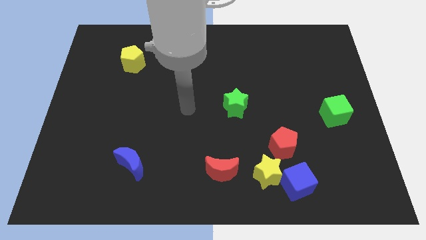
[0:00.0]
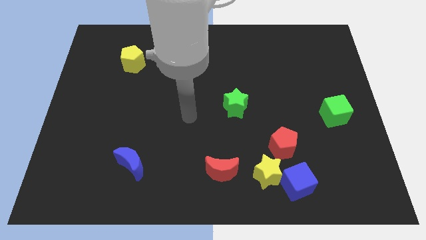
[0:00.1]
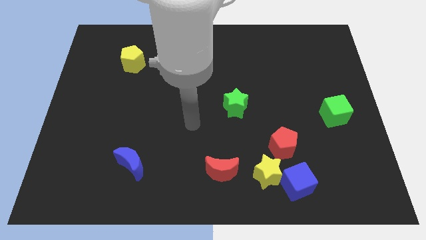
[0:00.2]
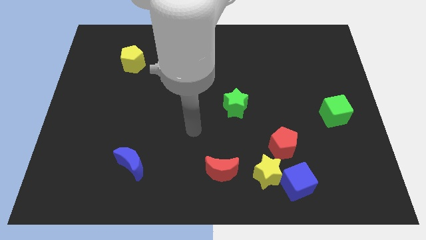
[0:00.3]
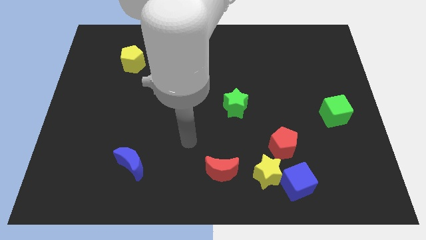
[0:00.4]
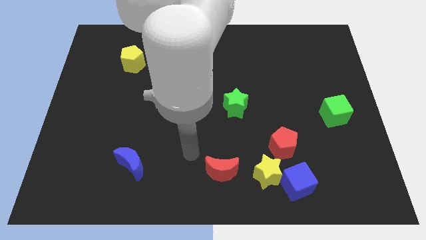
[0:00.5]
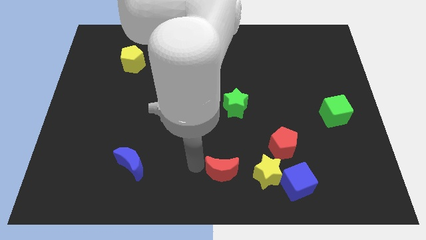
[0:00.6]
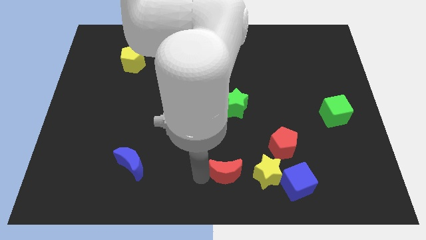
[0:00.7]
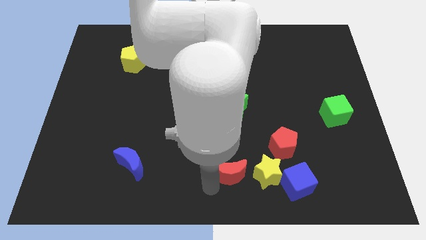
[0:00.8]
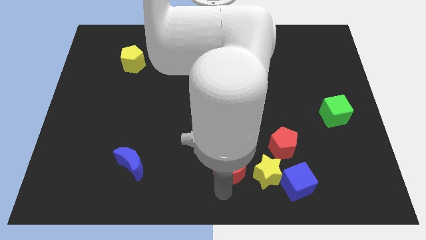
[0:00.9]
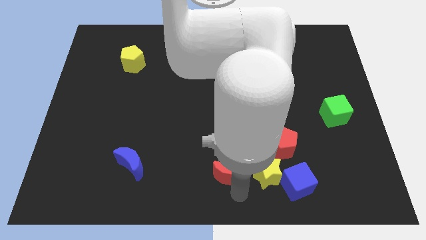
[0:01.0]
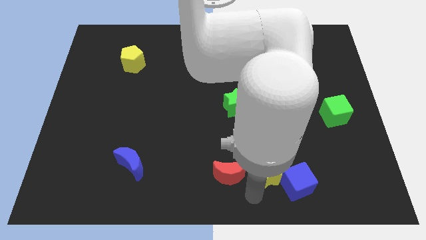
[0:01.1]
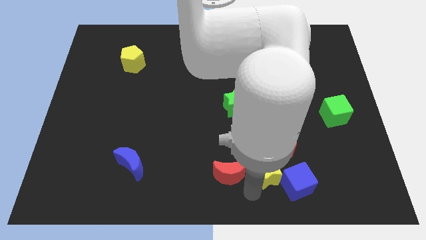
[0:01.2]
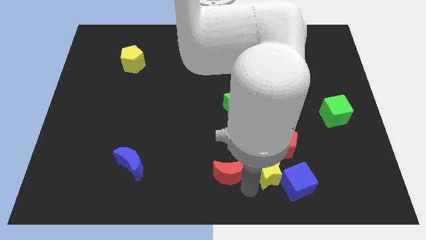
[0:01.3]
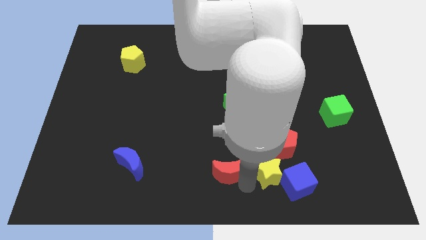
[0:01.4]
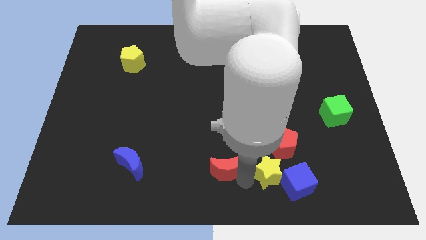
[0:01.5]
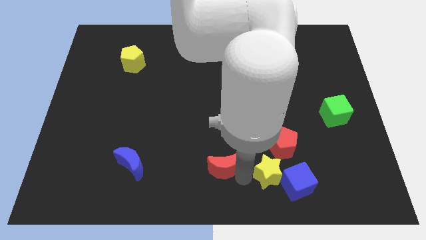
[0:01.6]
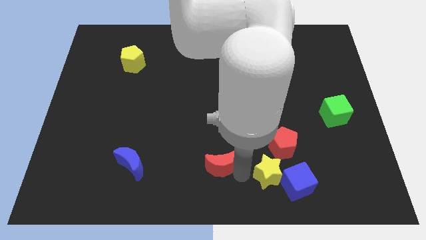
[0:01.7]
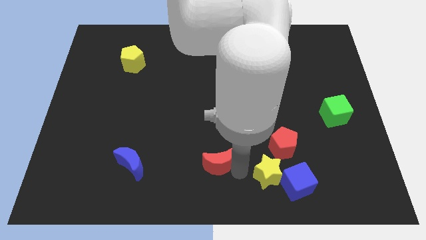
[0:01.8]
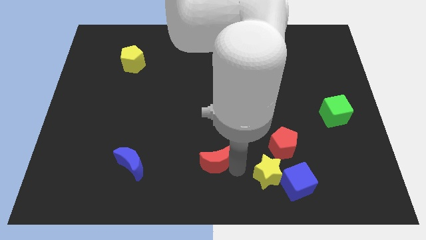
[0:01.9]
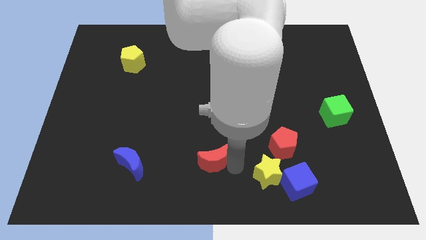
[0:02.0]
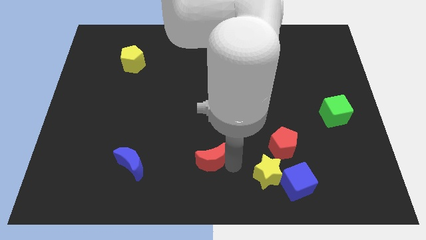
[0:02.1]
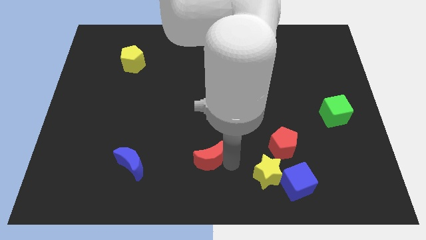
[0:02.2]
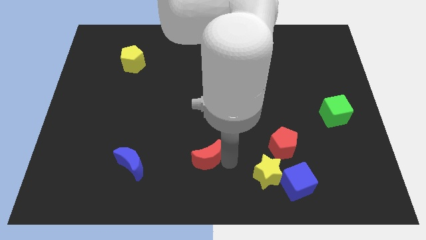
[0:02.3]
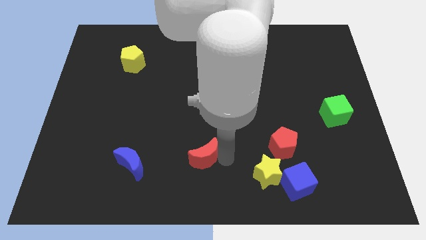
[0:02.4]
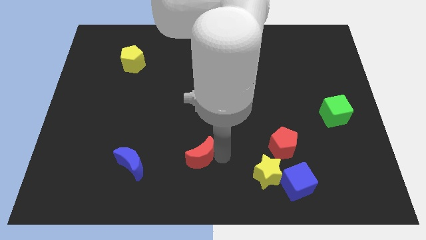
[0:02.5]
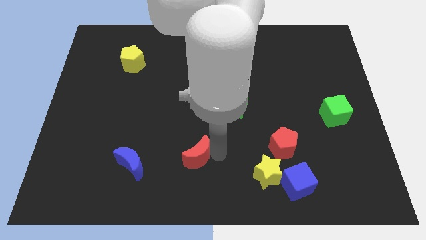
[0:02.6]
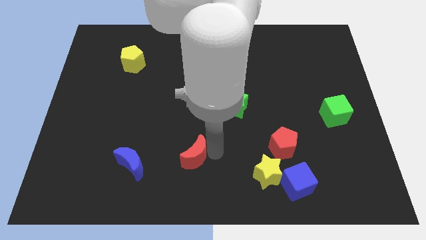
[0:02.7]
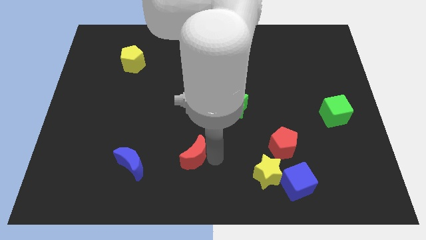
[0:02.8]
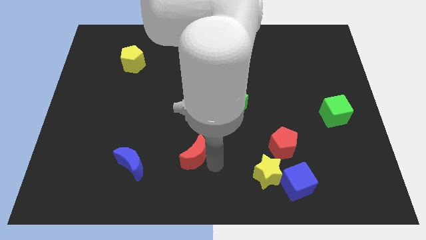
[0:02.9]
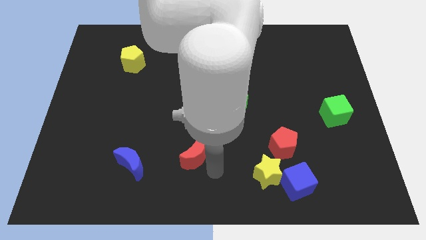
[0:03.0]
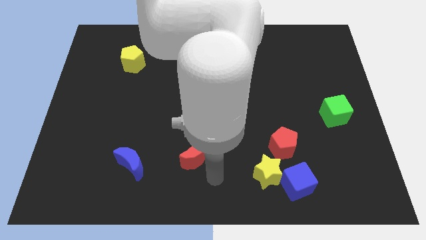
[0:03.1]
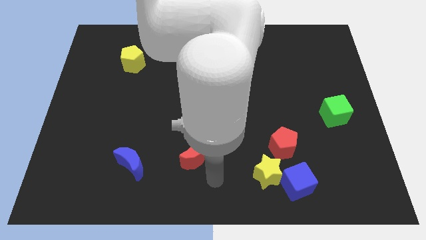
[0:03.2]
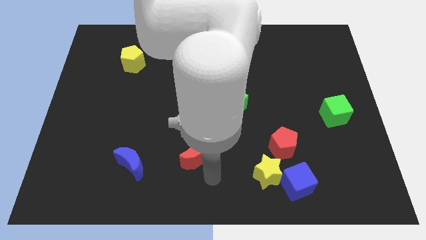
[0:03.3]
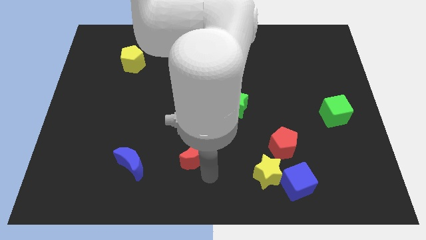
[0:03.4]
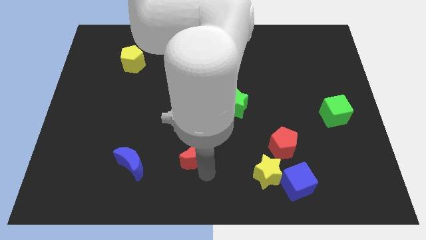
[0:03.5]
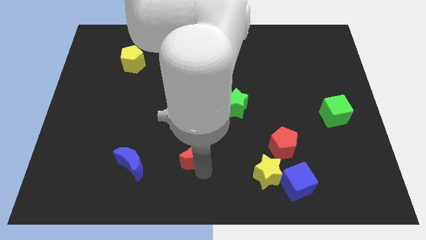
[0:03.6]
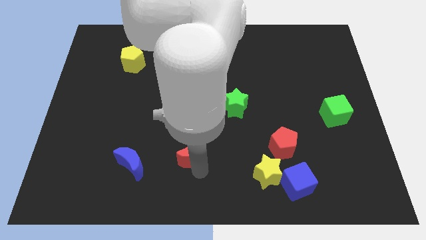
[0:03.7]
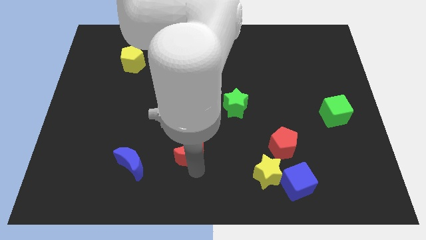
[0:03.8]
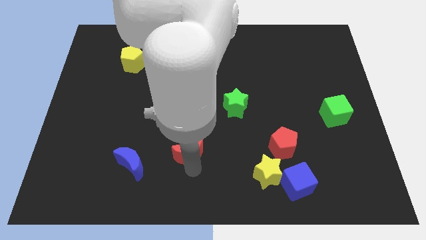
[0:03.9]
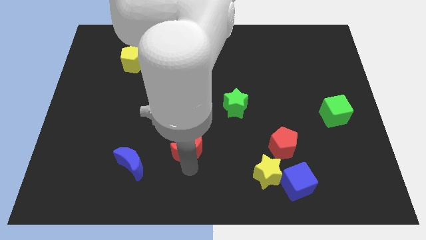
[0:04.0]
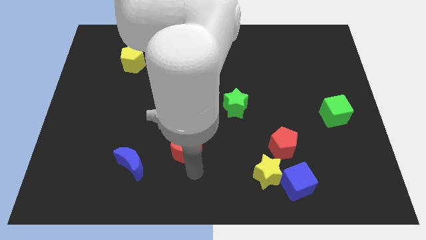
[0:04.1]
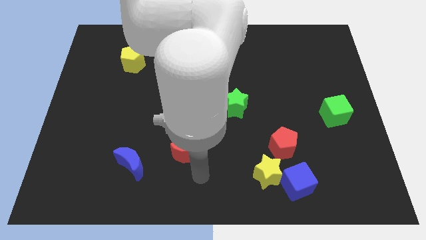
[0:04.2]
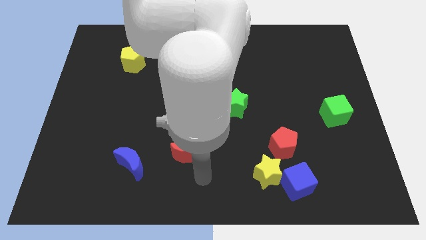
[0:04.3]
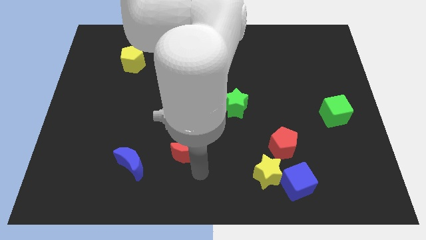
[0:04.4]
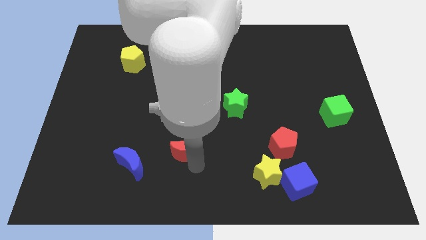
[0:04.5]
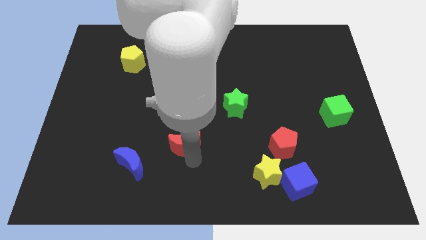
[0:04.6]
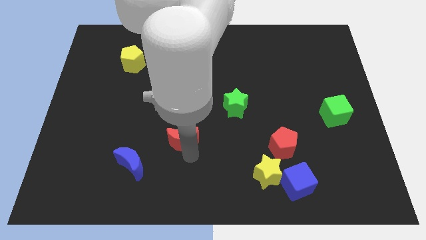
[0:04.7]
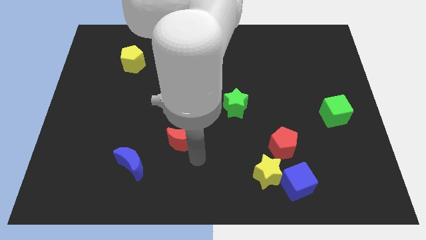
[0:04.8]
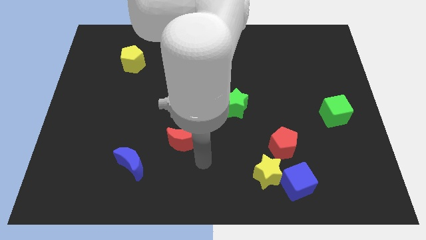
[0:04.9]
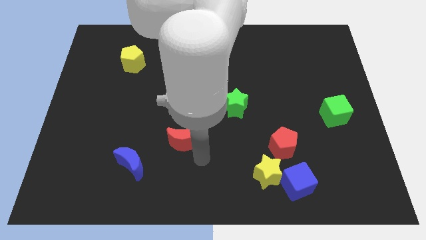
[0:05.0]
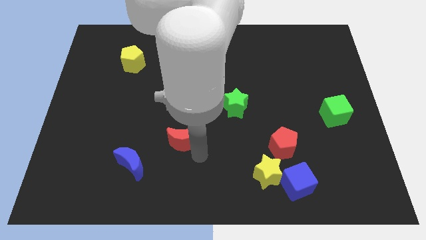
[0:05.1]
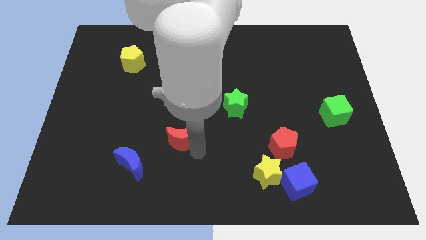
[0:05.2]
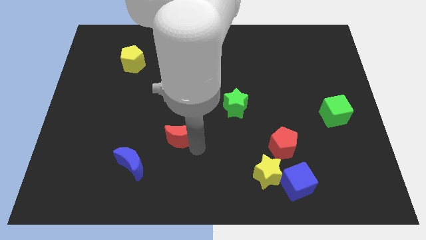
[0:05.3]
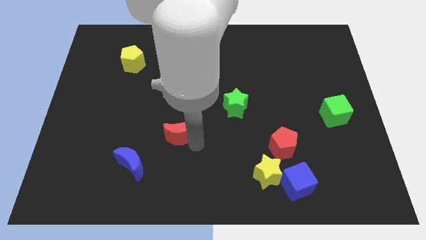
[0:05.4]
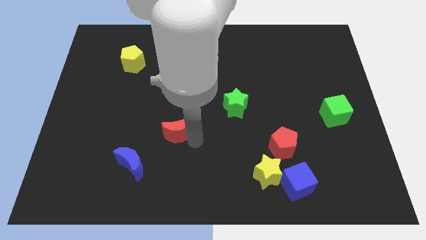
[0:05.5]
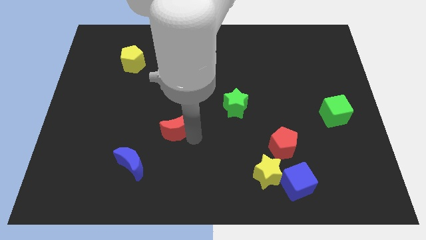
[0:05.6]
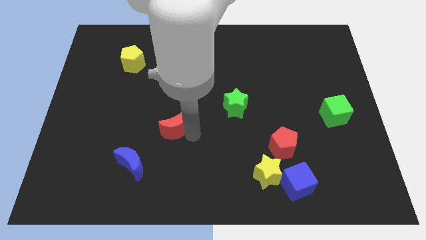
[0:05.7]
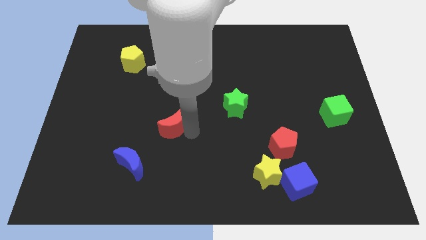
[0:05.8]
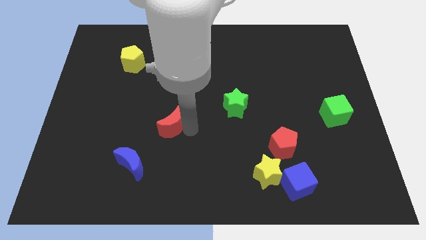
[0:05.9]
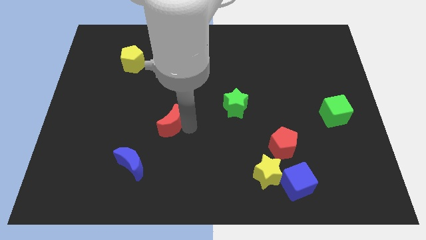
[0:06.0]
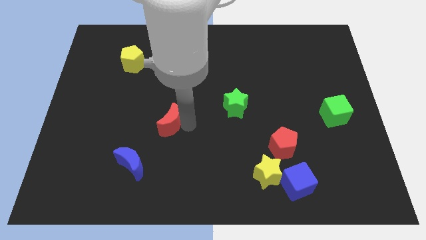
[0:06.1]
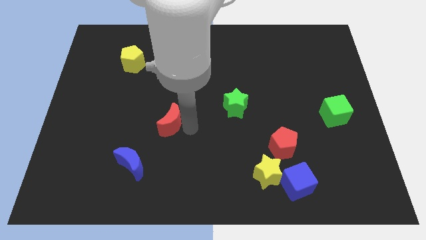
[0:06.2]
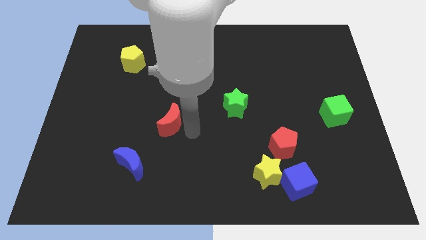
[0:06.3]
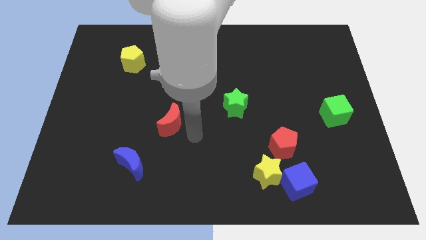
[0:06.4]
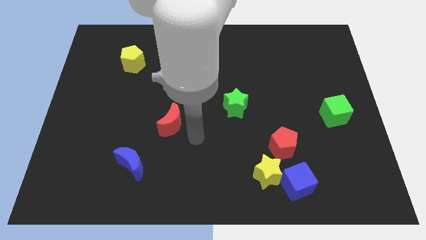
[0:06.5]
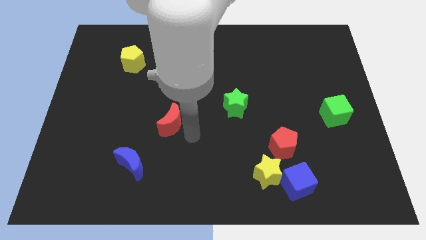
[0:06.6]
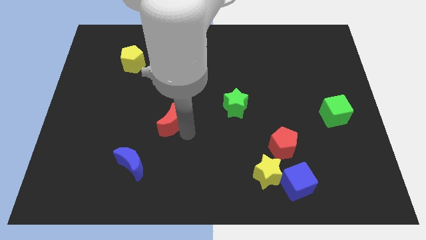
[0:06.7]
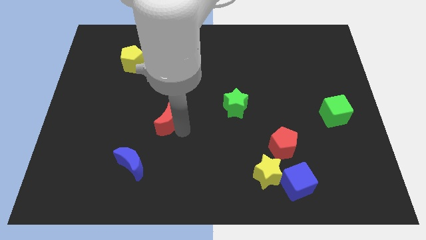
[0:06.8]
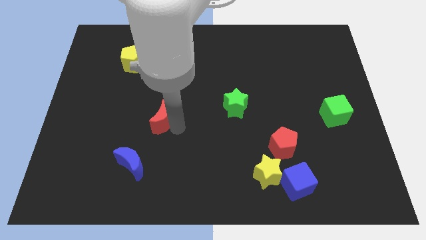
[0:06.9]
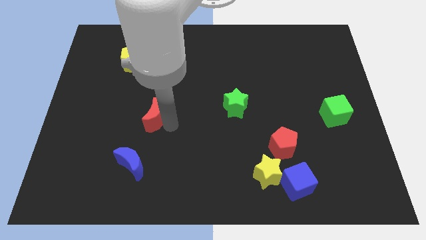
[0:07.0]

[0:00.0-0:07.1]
move the red moon upwards and then to the left

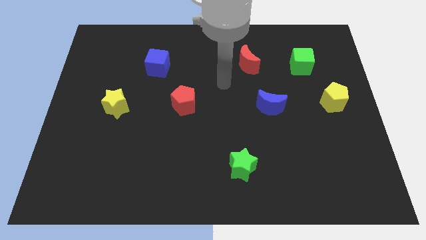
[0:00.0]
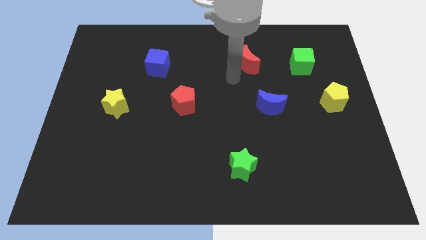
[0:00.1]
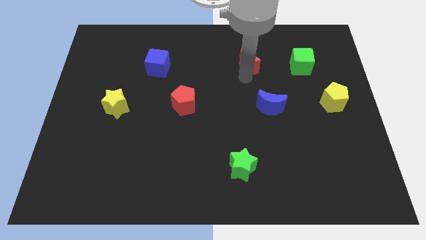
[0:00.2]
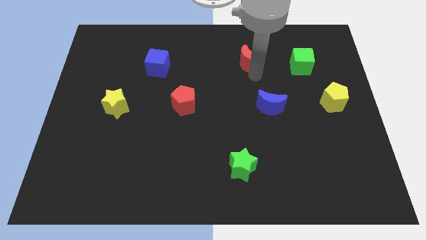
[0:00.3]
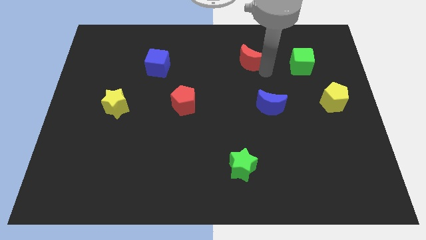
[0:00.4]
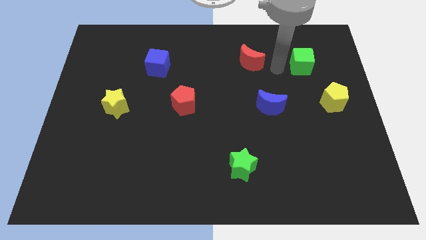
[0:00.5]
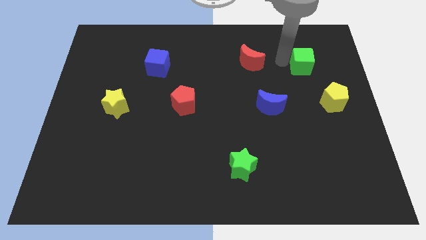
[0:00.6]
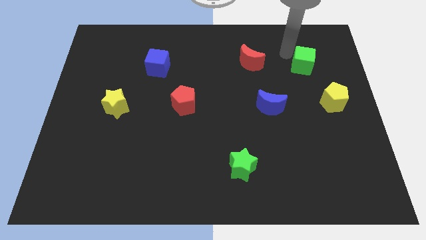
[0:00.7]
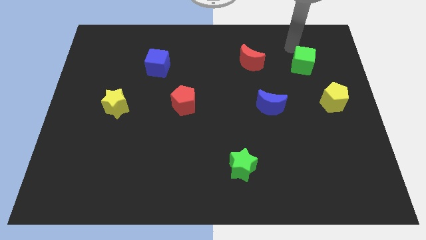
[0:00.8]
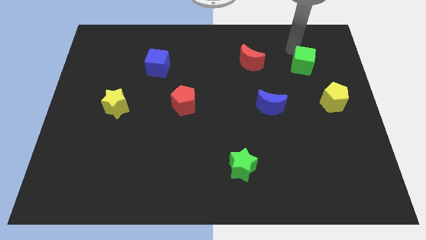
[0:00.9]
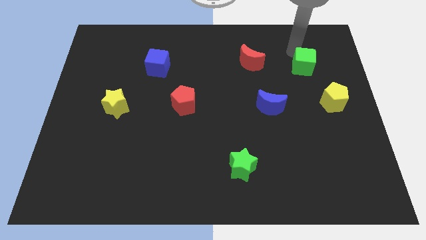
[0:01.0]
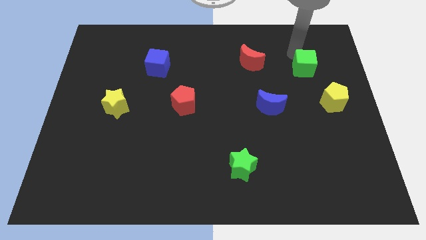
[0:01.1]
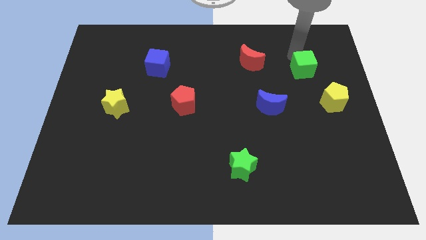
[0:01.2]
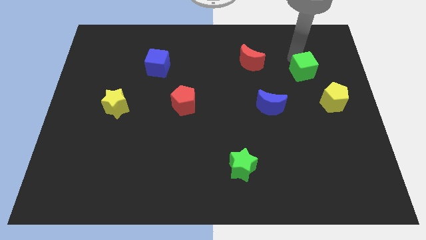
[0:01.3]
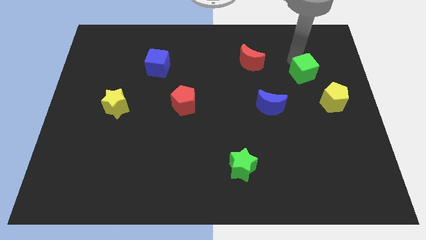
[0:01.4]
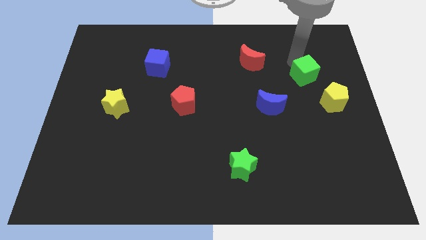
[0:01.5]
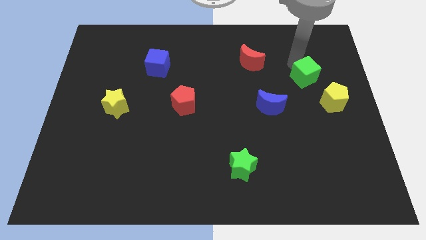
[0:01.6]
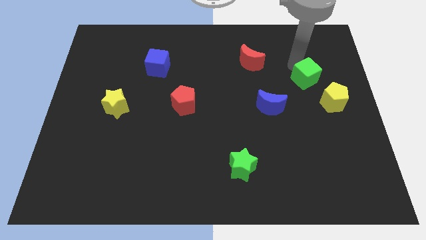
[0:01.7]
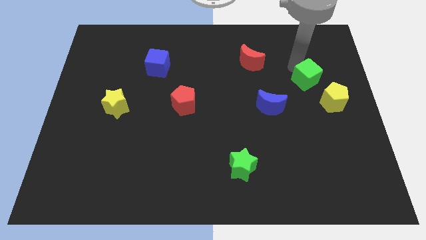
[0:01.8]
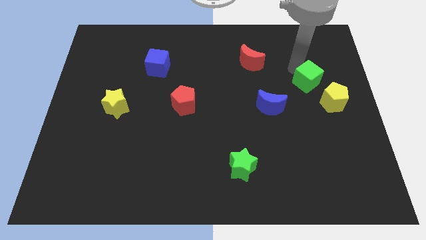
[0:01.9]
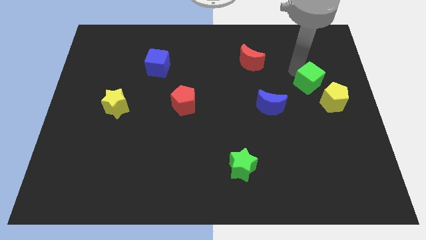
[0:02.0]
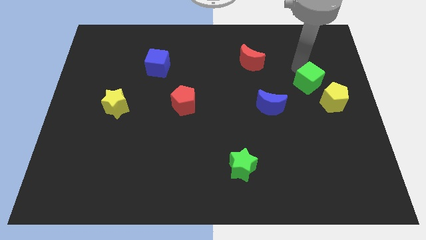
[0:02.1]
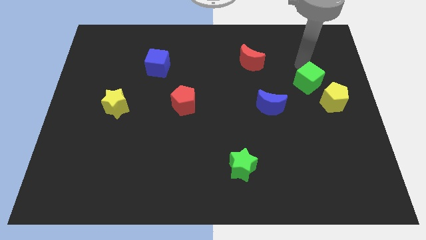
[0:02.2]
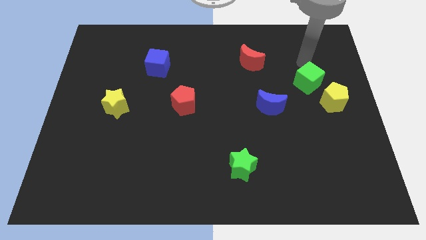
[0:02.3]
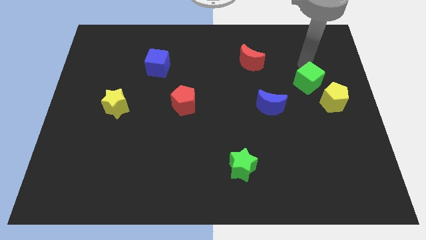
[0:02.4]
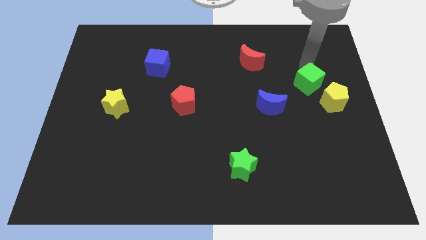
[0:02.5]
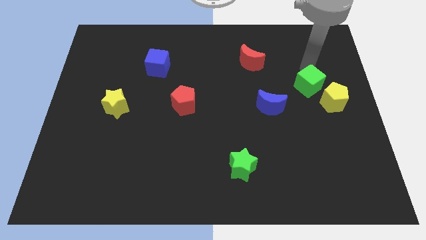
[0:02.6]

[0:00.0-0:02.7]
slide the green cube a little downwards
